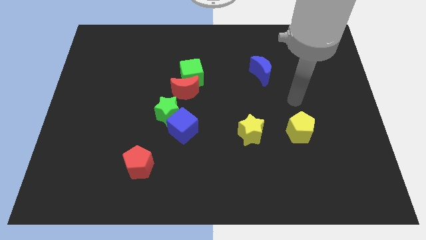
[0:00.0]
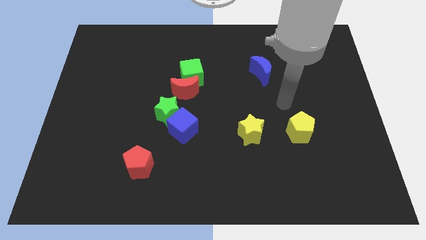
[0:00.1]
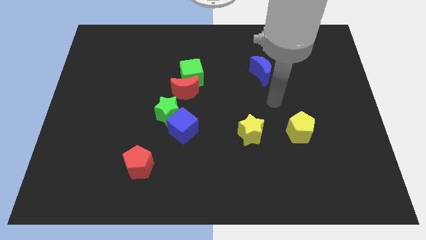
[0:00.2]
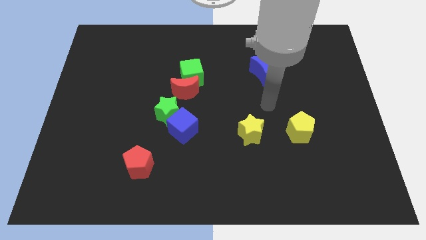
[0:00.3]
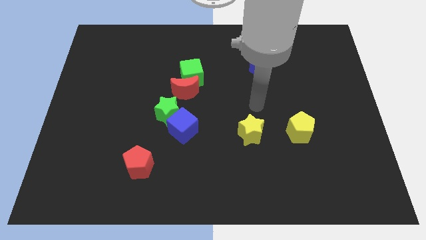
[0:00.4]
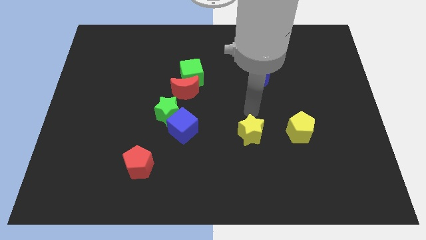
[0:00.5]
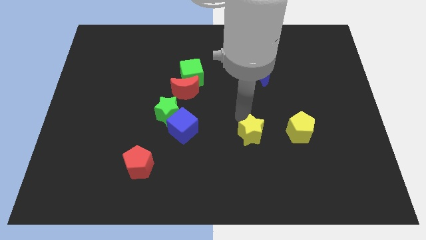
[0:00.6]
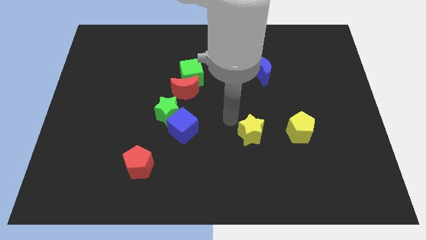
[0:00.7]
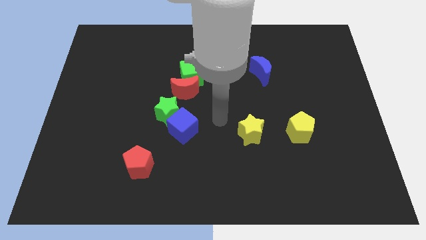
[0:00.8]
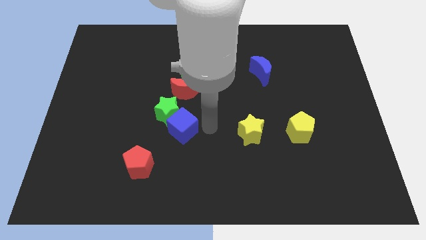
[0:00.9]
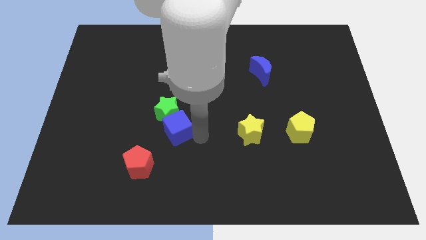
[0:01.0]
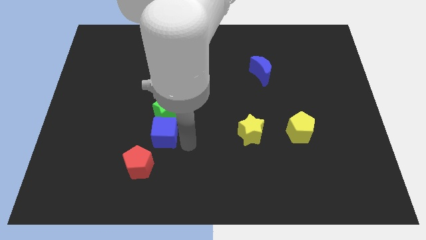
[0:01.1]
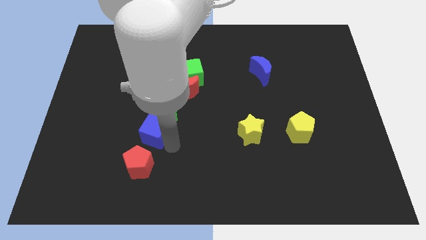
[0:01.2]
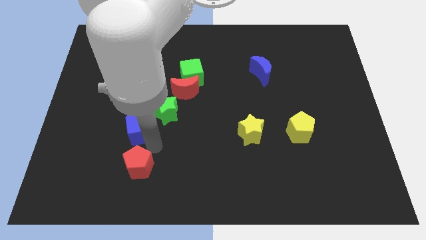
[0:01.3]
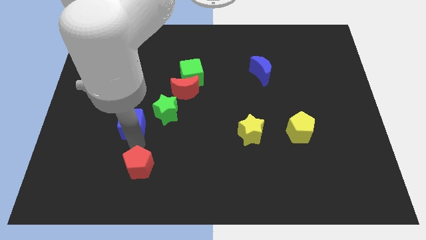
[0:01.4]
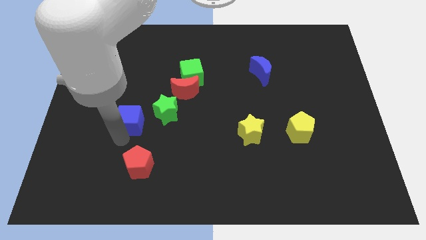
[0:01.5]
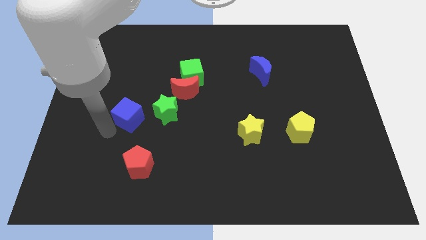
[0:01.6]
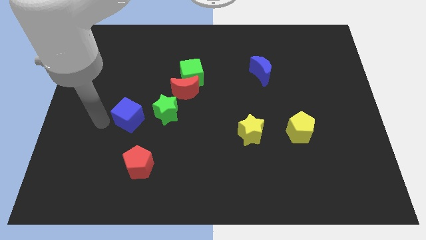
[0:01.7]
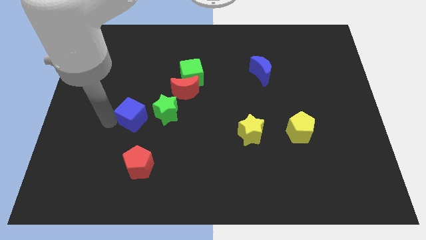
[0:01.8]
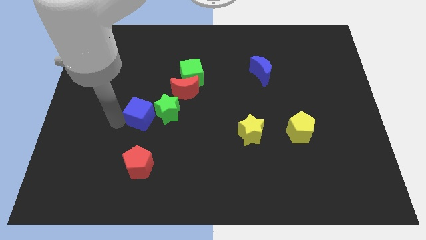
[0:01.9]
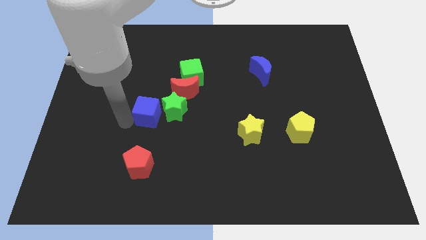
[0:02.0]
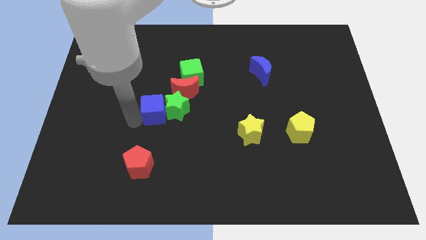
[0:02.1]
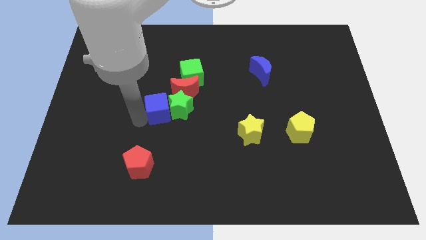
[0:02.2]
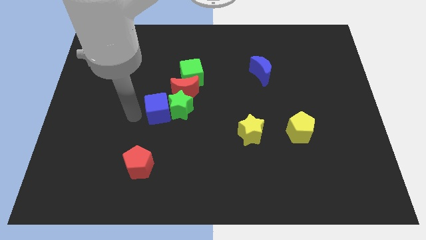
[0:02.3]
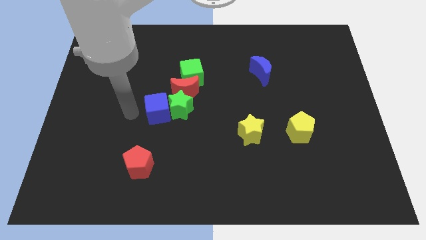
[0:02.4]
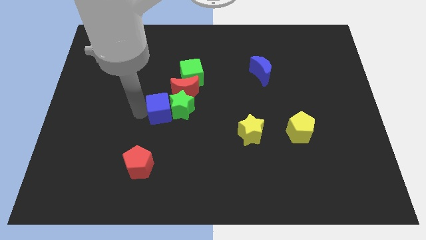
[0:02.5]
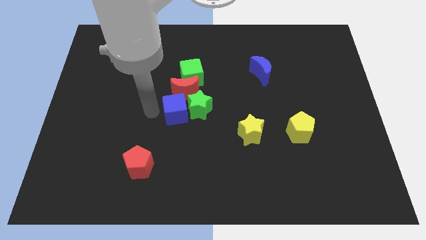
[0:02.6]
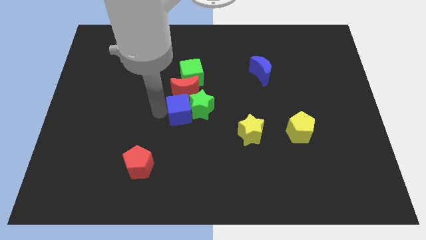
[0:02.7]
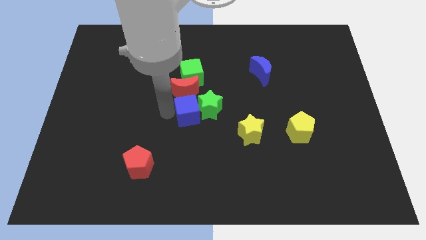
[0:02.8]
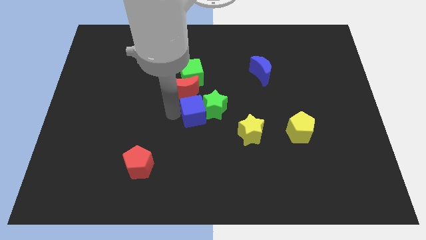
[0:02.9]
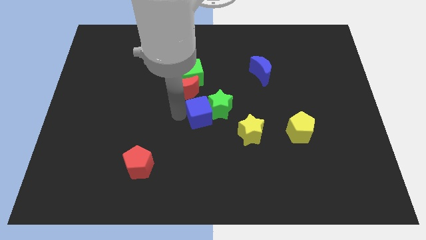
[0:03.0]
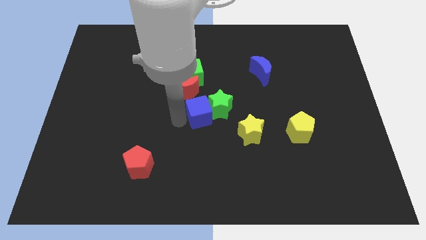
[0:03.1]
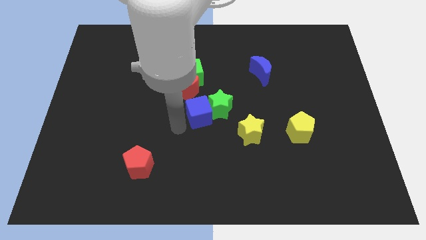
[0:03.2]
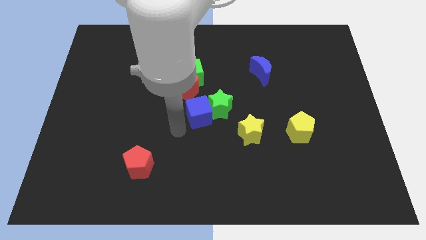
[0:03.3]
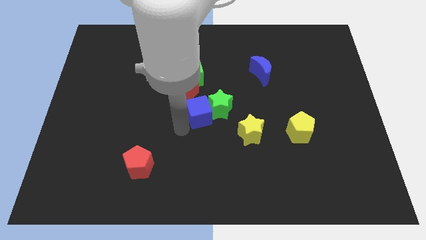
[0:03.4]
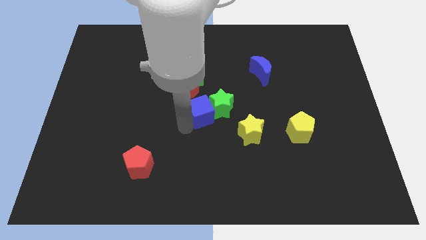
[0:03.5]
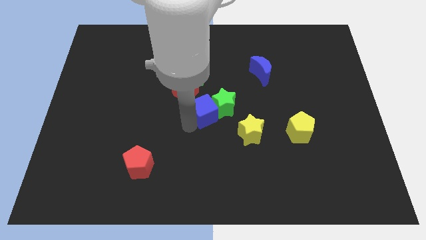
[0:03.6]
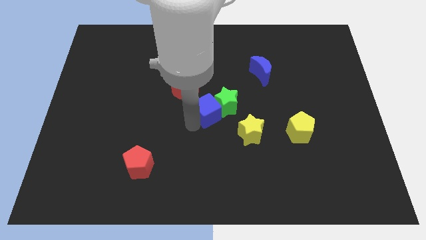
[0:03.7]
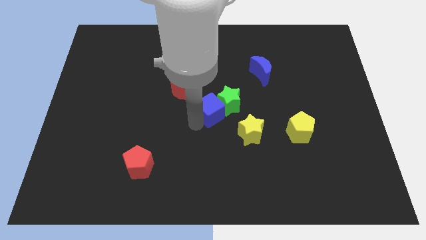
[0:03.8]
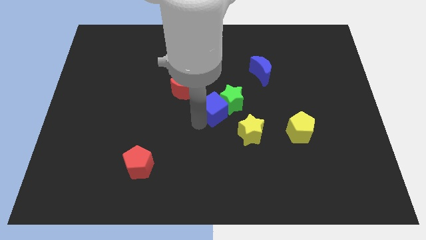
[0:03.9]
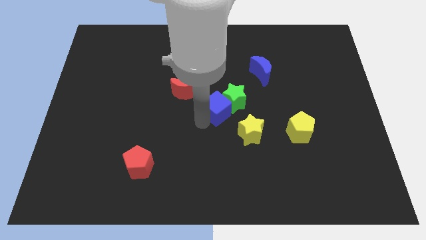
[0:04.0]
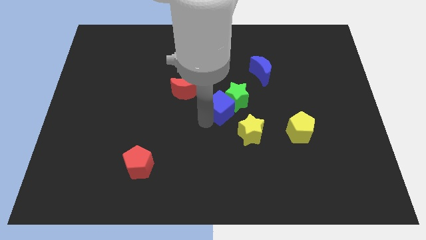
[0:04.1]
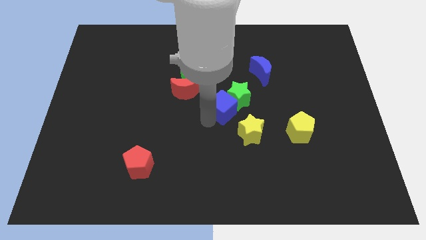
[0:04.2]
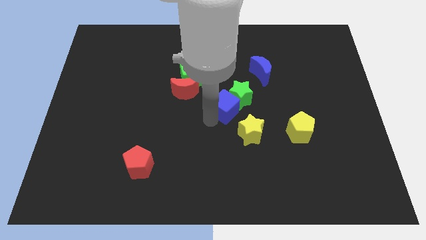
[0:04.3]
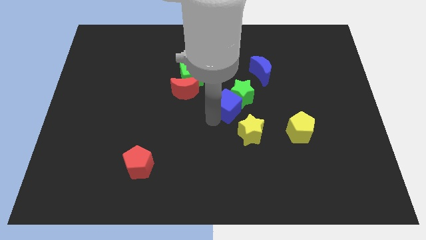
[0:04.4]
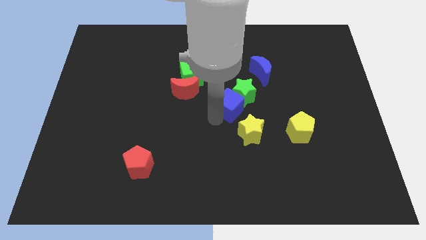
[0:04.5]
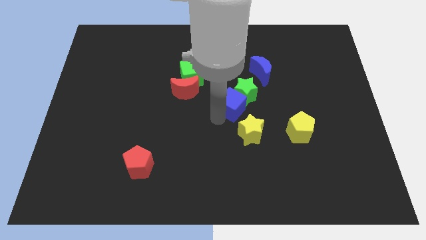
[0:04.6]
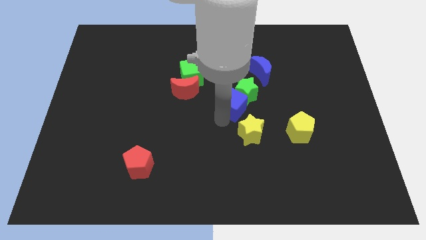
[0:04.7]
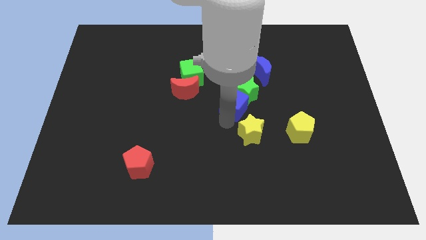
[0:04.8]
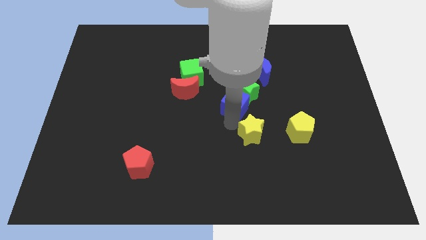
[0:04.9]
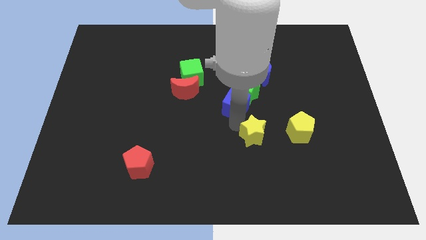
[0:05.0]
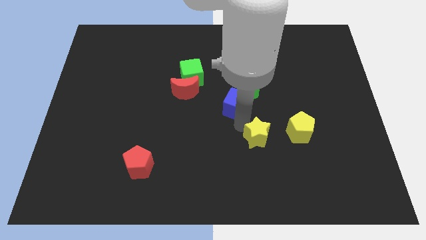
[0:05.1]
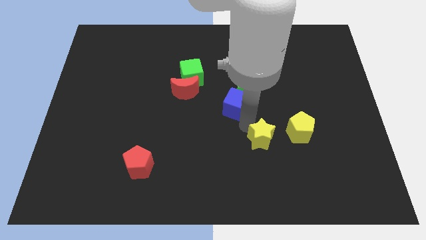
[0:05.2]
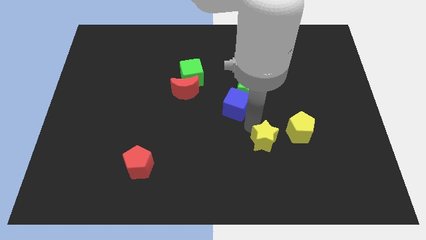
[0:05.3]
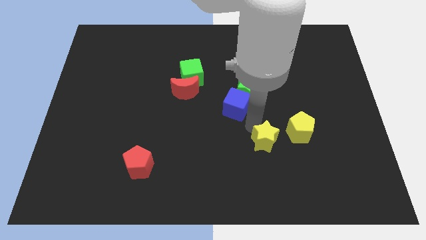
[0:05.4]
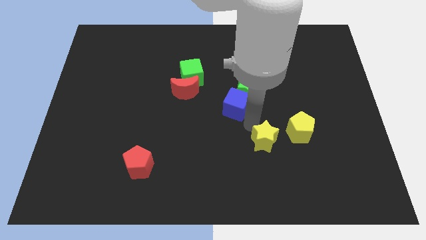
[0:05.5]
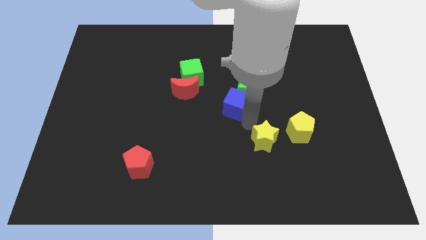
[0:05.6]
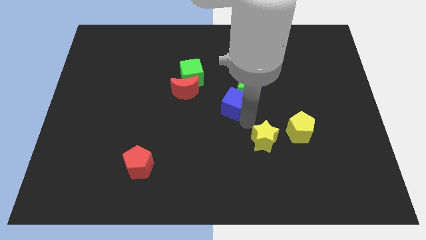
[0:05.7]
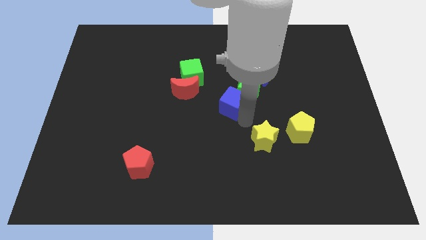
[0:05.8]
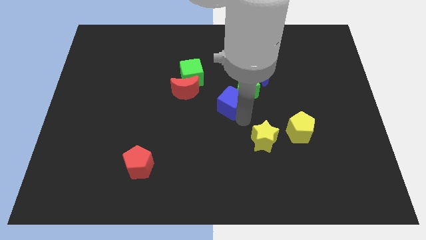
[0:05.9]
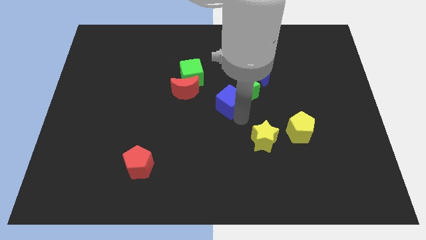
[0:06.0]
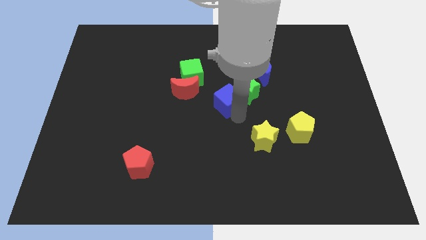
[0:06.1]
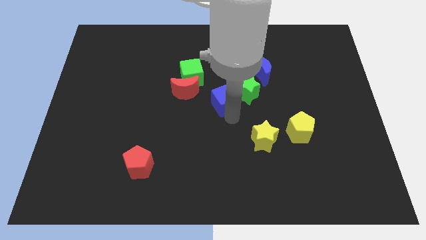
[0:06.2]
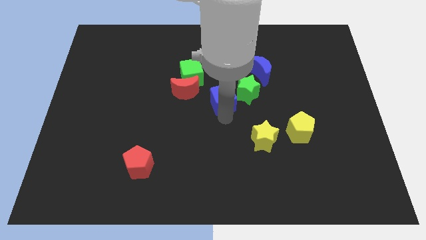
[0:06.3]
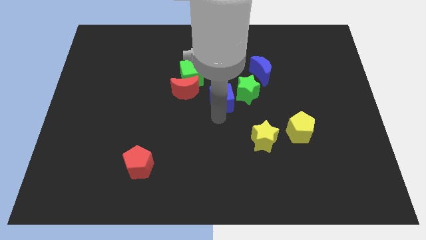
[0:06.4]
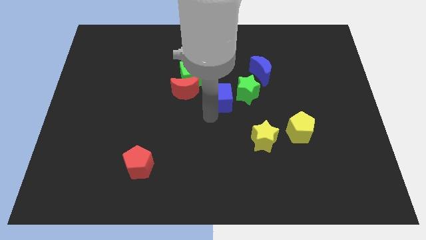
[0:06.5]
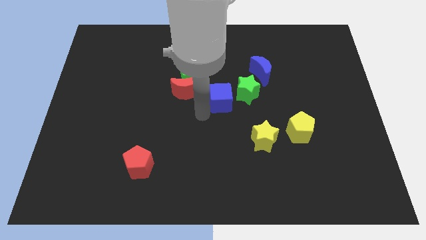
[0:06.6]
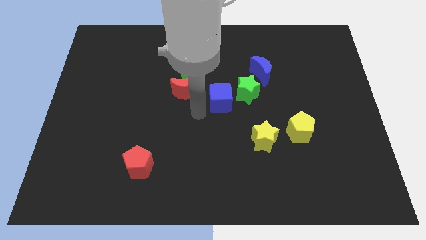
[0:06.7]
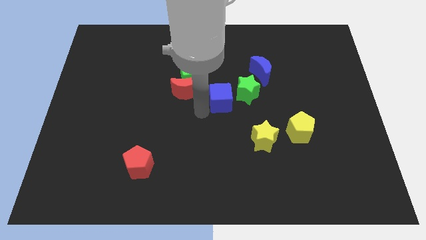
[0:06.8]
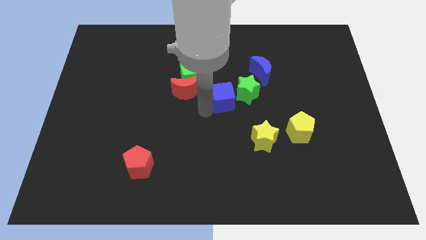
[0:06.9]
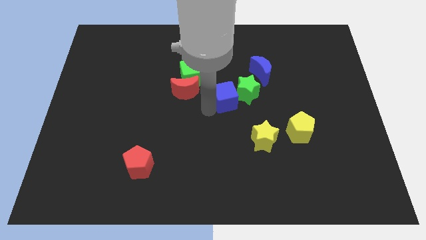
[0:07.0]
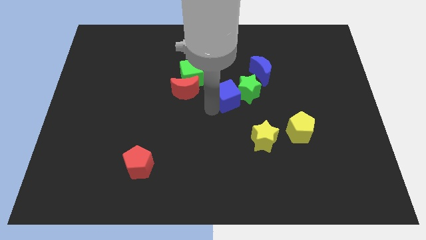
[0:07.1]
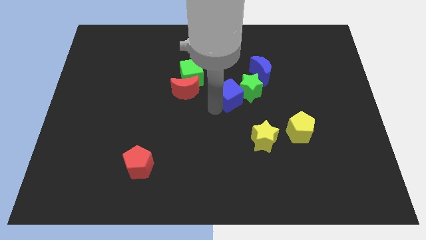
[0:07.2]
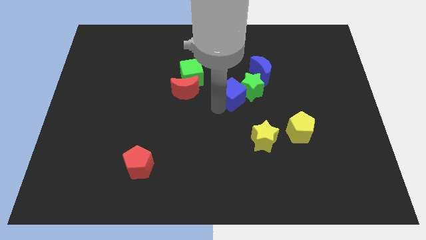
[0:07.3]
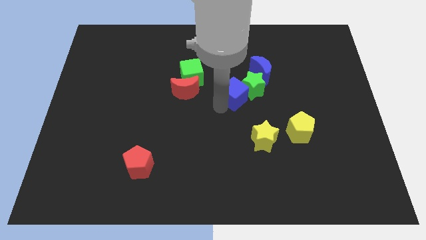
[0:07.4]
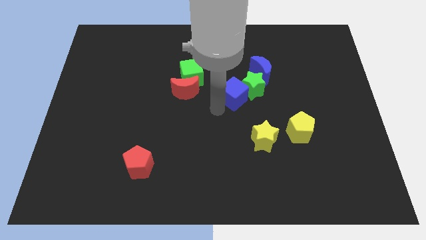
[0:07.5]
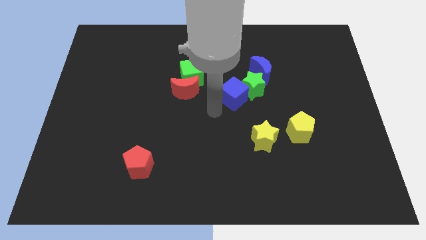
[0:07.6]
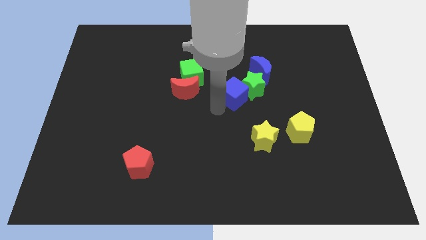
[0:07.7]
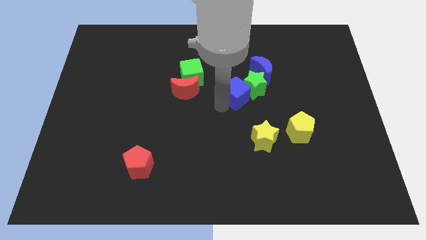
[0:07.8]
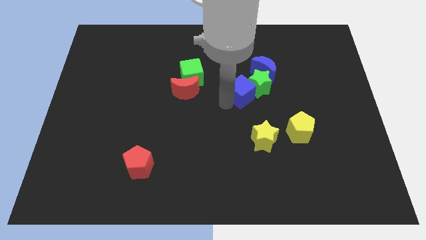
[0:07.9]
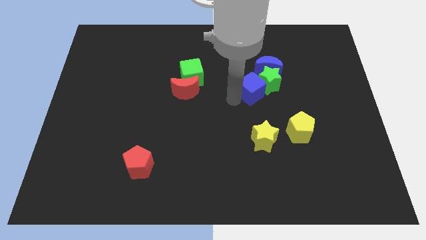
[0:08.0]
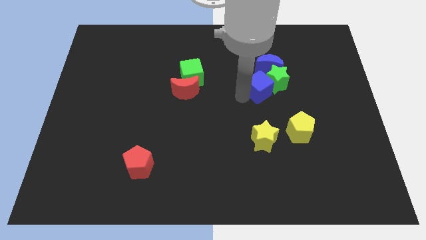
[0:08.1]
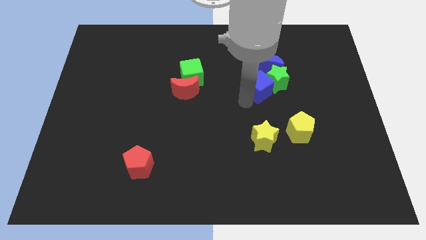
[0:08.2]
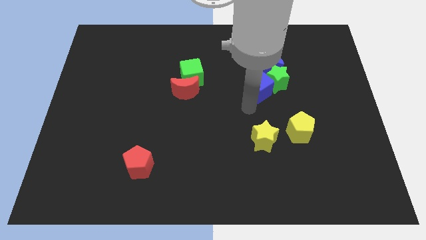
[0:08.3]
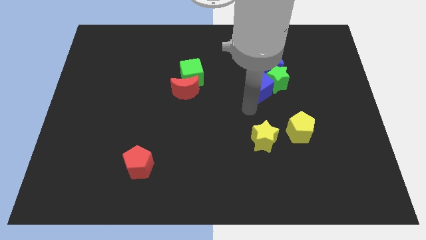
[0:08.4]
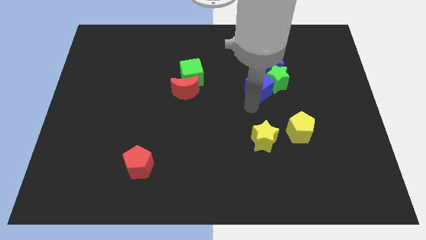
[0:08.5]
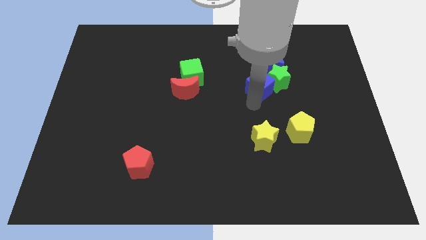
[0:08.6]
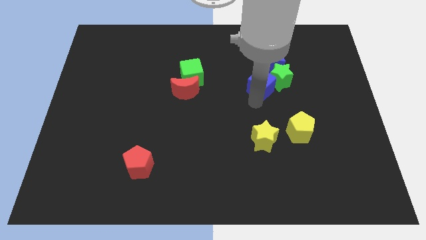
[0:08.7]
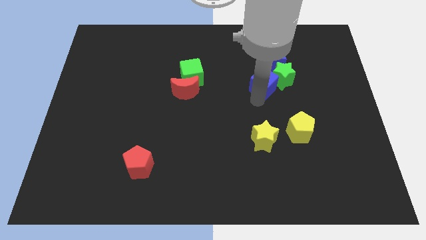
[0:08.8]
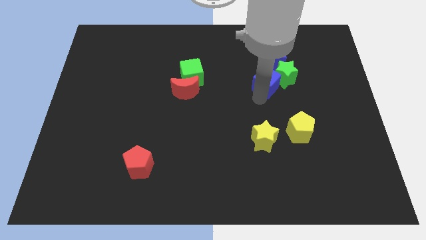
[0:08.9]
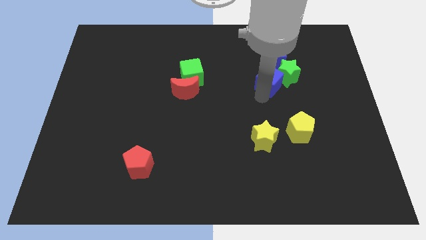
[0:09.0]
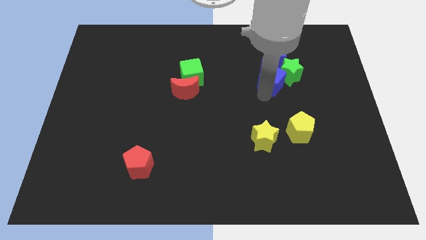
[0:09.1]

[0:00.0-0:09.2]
slide the blue cube close to the blue moon
